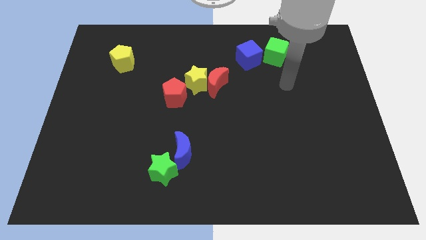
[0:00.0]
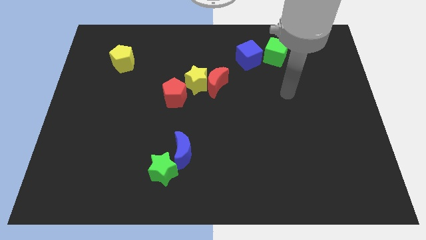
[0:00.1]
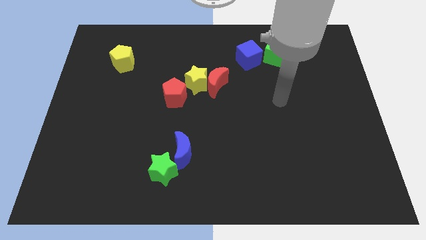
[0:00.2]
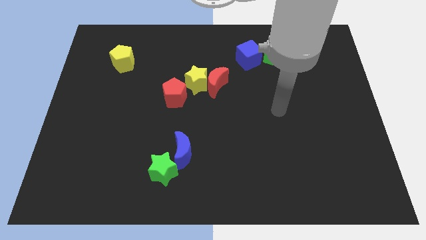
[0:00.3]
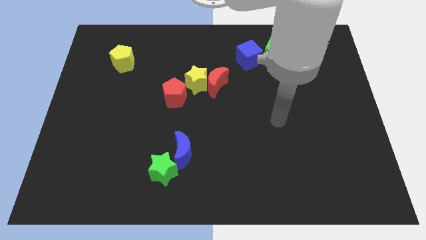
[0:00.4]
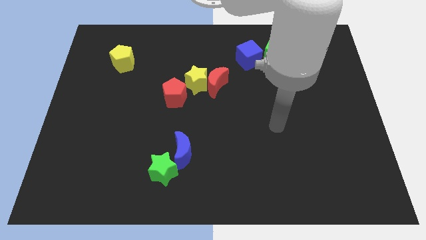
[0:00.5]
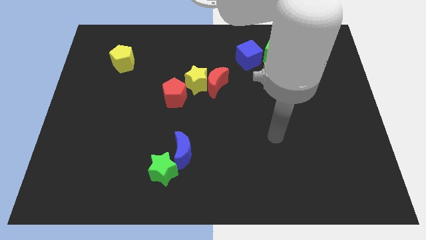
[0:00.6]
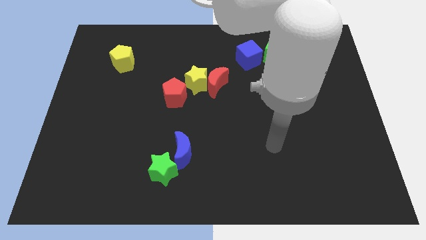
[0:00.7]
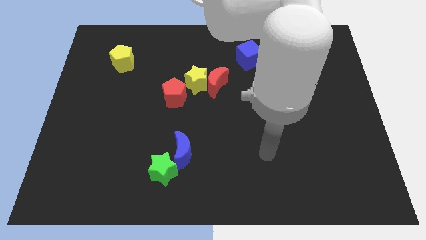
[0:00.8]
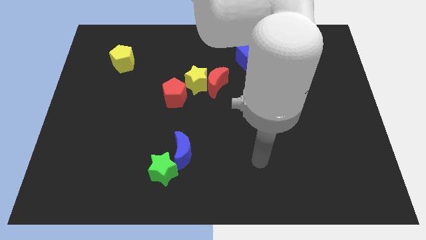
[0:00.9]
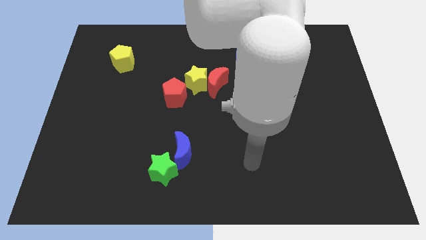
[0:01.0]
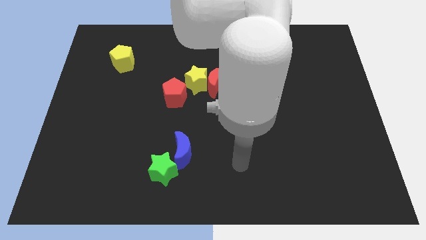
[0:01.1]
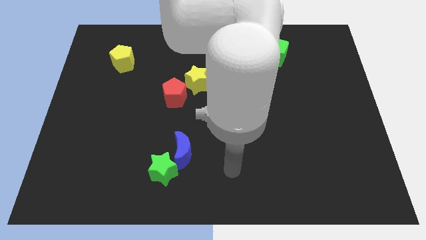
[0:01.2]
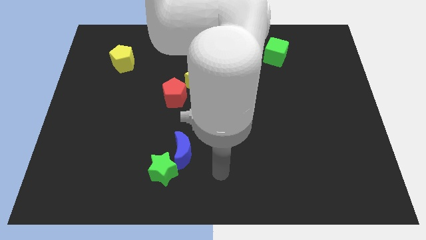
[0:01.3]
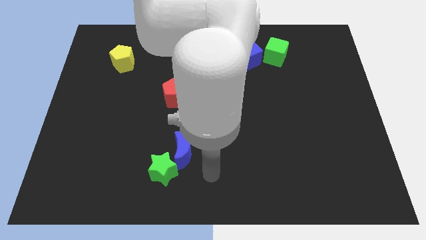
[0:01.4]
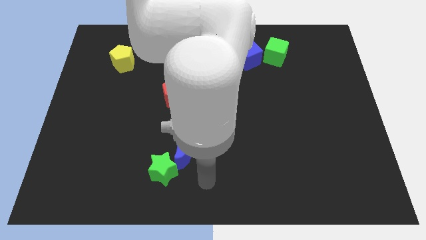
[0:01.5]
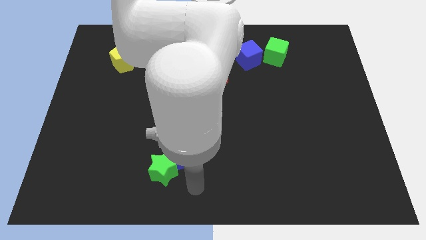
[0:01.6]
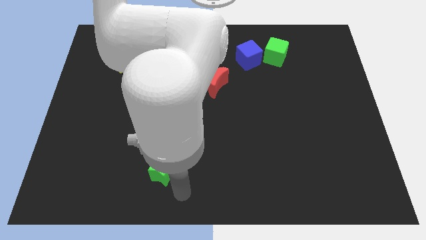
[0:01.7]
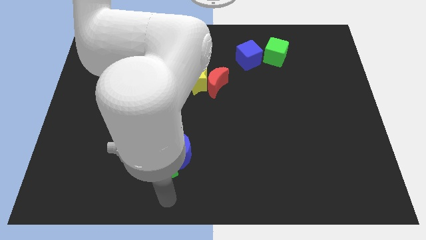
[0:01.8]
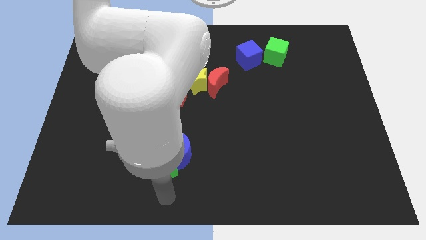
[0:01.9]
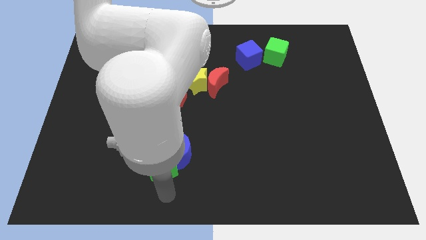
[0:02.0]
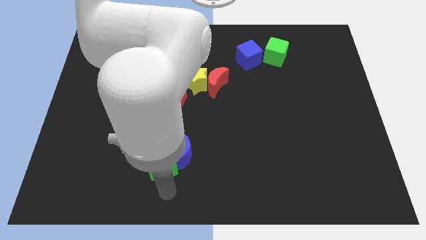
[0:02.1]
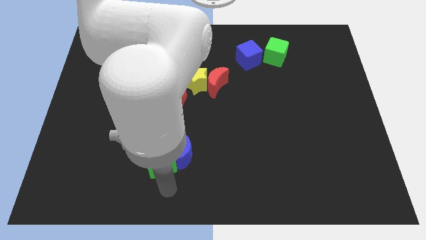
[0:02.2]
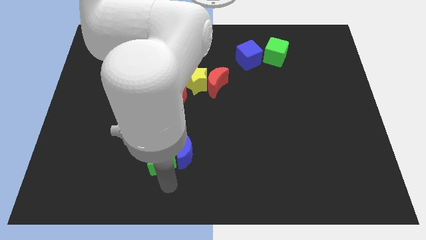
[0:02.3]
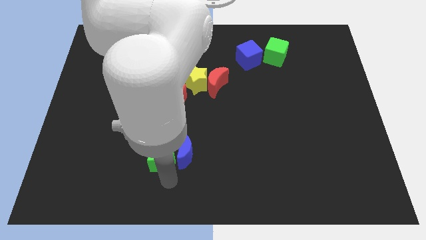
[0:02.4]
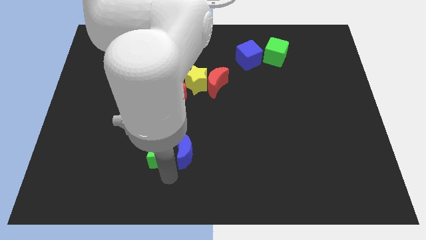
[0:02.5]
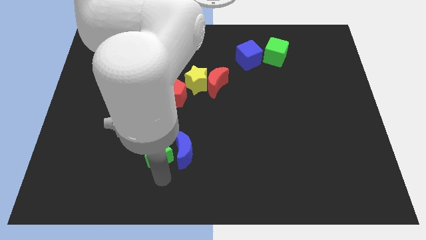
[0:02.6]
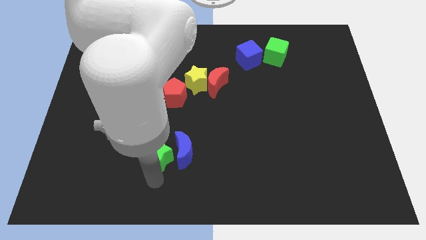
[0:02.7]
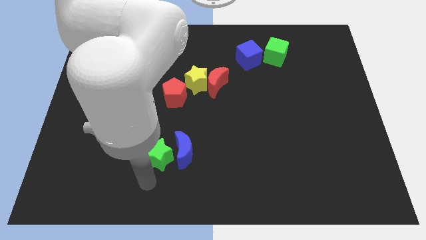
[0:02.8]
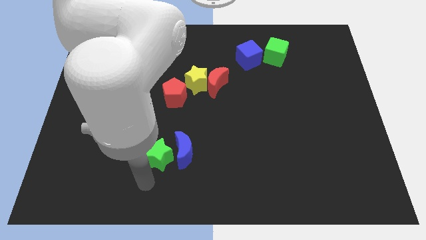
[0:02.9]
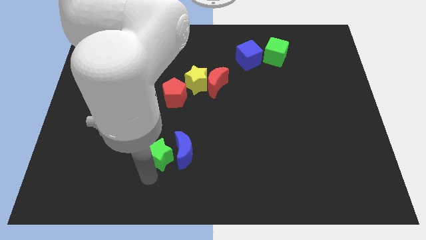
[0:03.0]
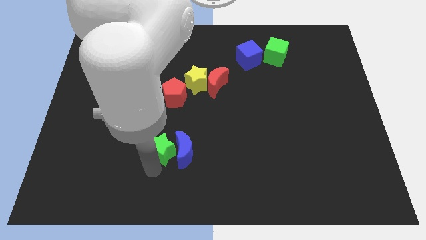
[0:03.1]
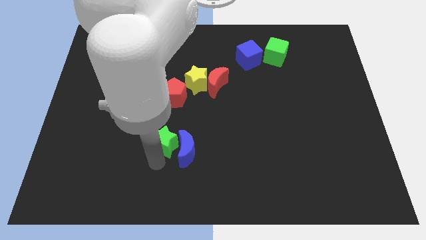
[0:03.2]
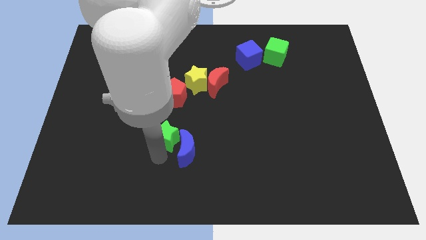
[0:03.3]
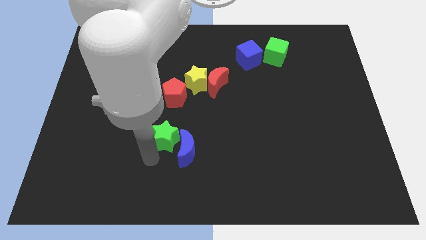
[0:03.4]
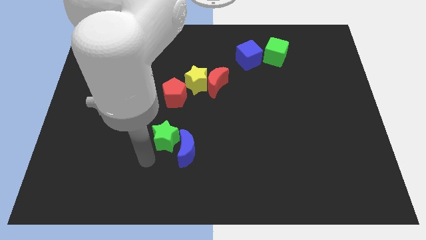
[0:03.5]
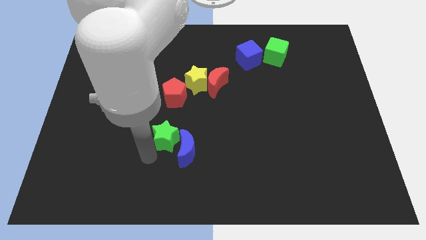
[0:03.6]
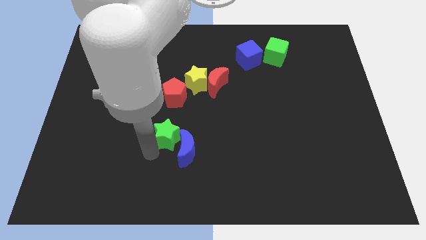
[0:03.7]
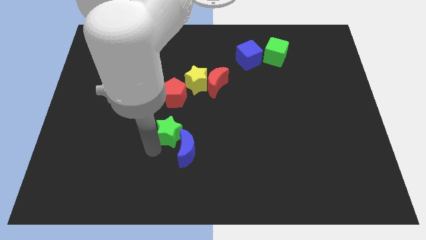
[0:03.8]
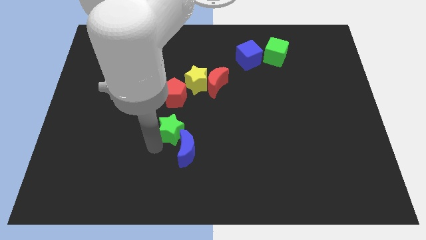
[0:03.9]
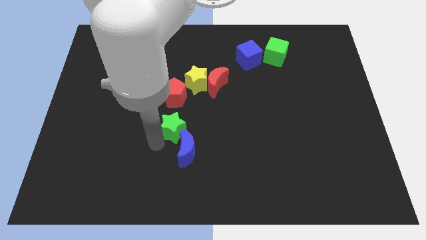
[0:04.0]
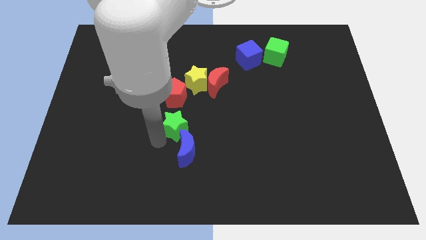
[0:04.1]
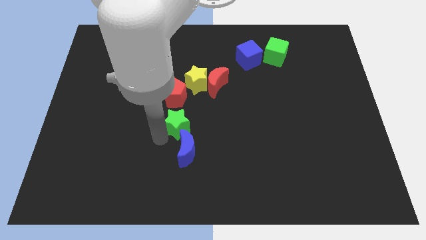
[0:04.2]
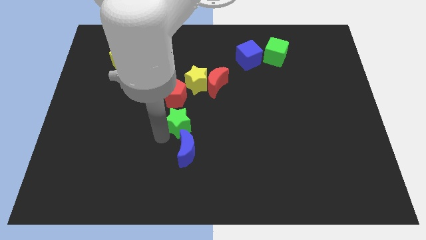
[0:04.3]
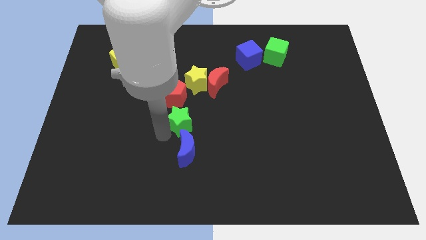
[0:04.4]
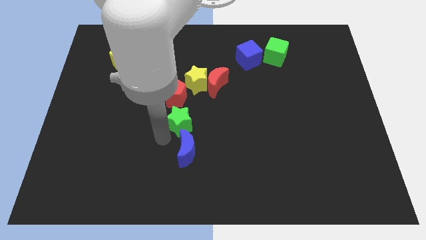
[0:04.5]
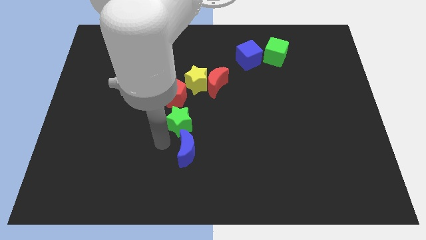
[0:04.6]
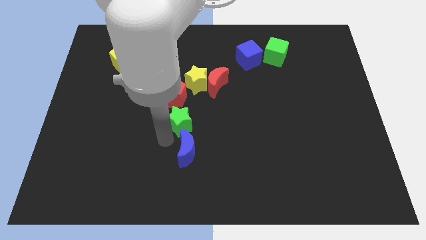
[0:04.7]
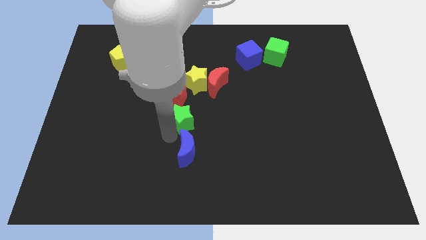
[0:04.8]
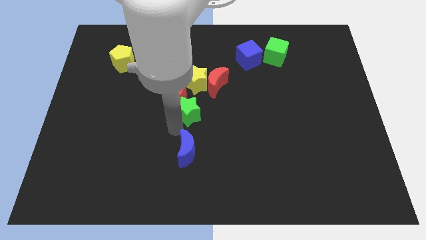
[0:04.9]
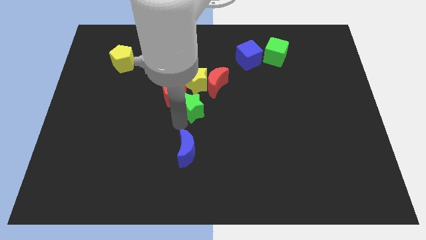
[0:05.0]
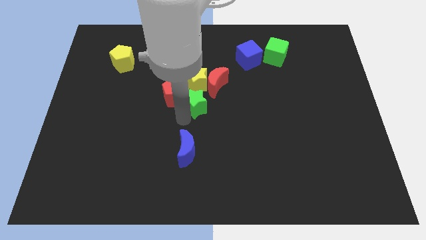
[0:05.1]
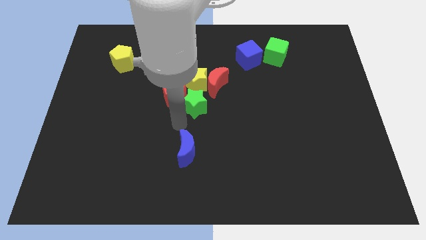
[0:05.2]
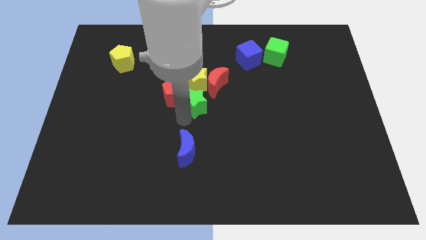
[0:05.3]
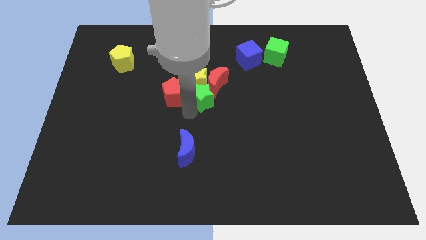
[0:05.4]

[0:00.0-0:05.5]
move the green star close to the red moon

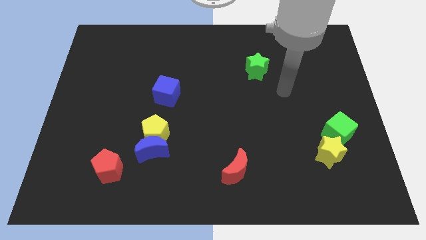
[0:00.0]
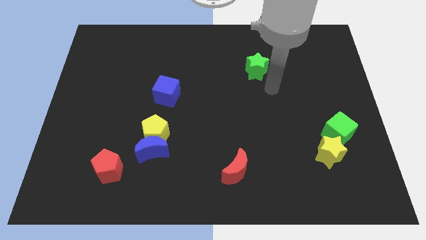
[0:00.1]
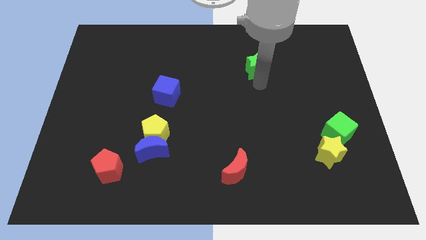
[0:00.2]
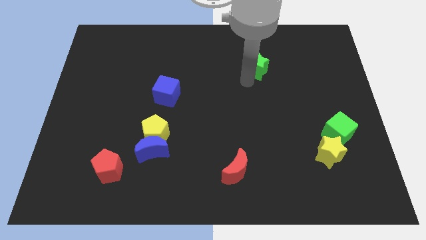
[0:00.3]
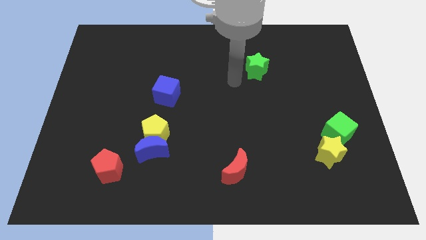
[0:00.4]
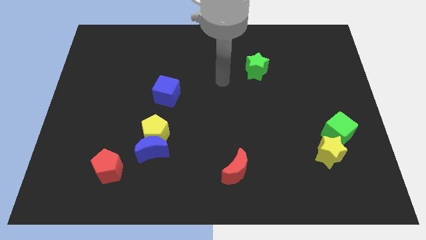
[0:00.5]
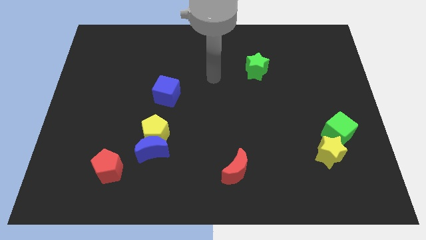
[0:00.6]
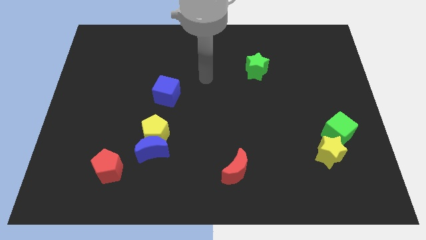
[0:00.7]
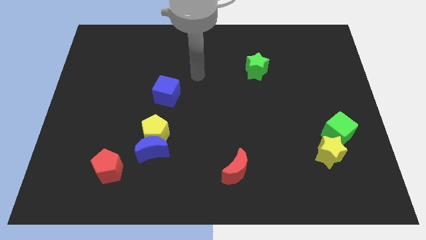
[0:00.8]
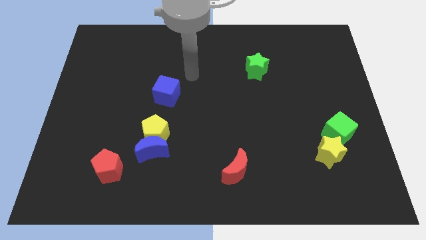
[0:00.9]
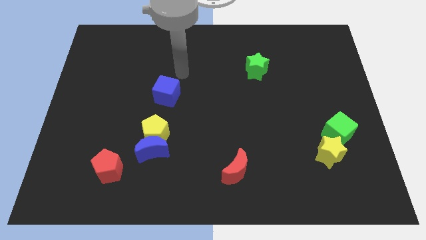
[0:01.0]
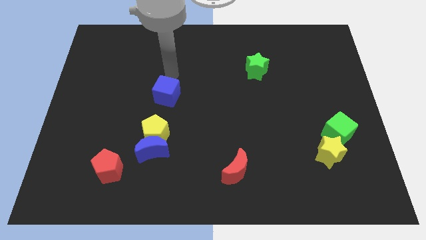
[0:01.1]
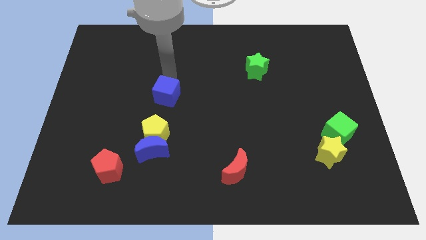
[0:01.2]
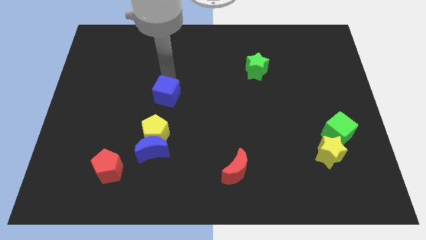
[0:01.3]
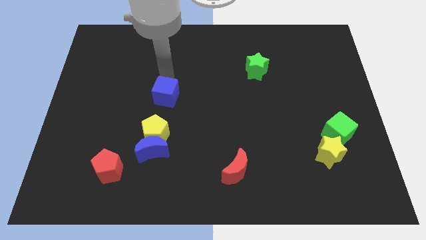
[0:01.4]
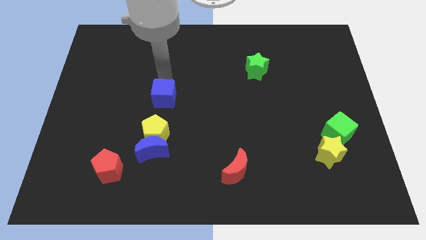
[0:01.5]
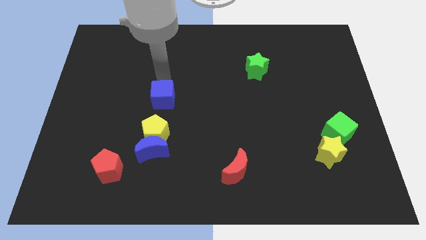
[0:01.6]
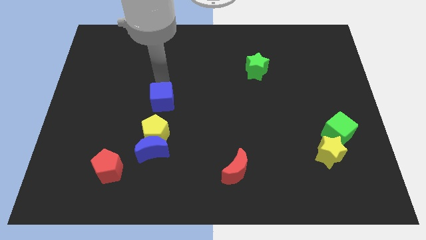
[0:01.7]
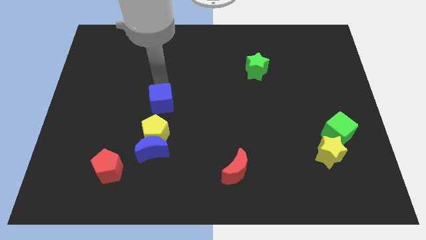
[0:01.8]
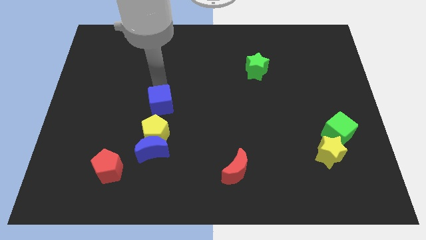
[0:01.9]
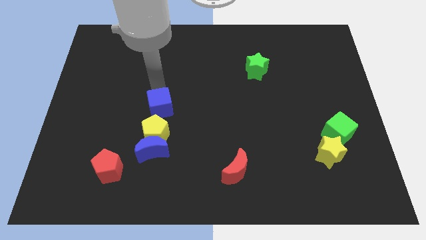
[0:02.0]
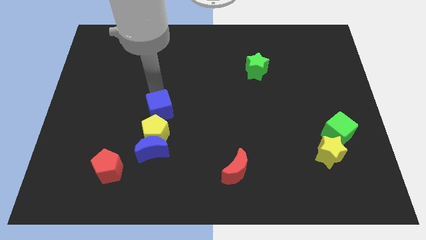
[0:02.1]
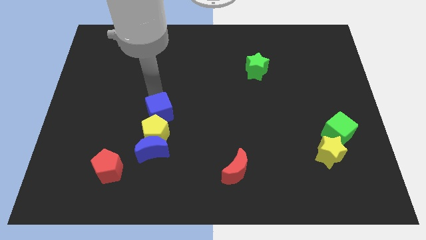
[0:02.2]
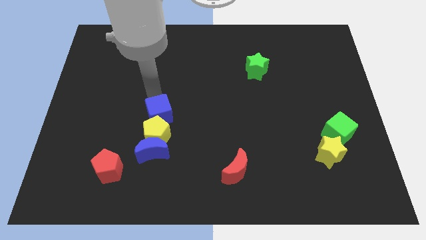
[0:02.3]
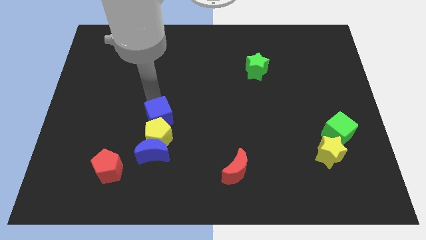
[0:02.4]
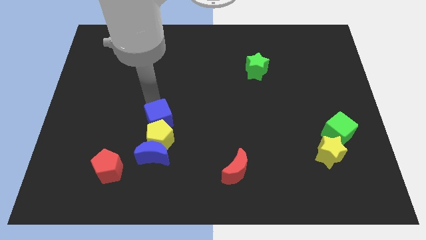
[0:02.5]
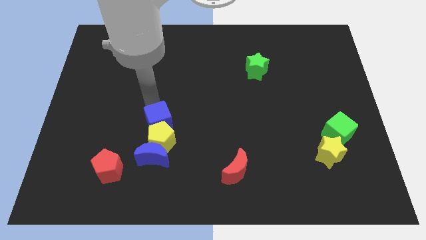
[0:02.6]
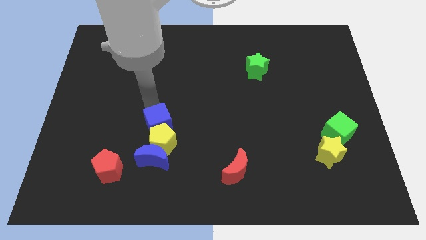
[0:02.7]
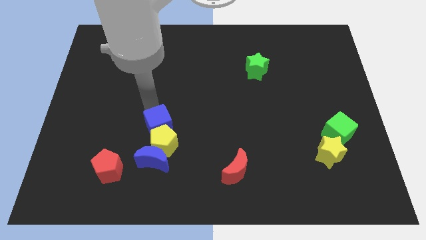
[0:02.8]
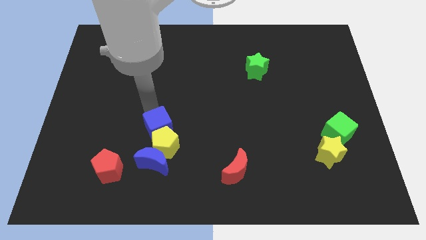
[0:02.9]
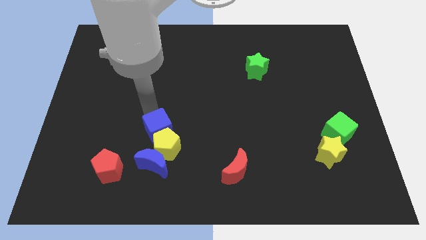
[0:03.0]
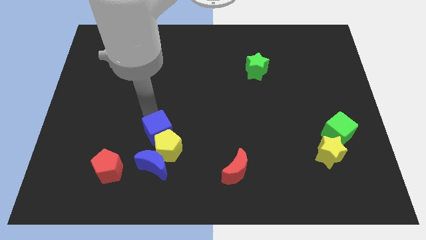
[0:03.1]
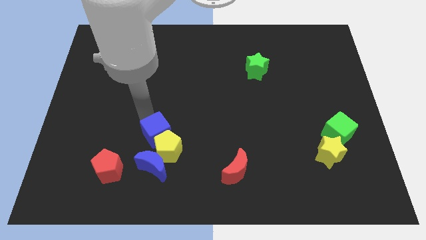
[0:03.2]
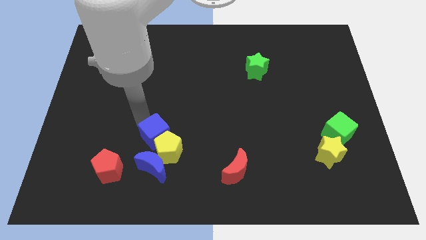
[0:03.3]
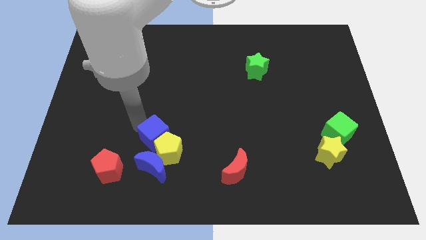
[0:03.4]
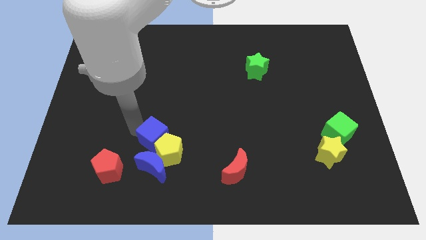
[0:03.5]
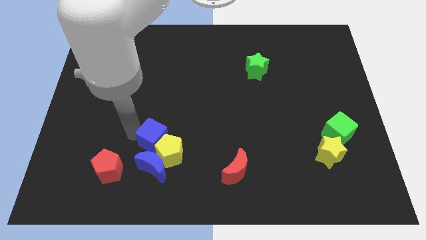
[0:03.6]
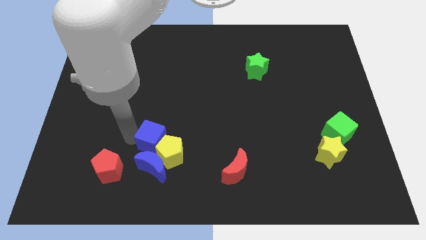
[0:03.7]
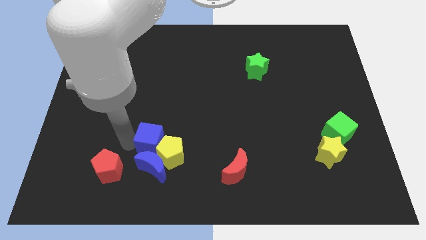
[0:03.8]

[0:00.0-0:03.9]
put the blue cube close to the blue moon
